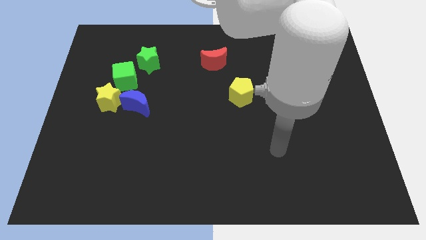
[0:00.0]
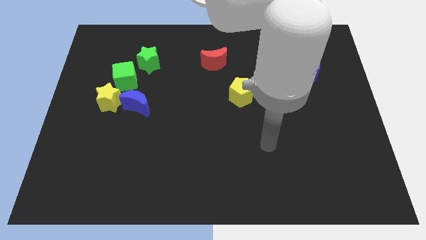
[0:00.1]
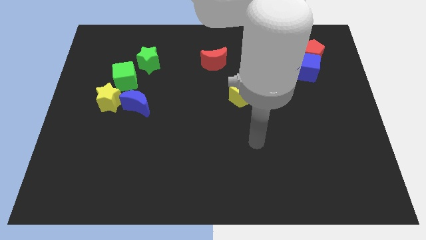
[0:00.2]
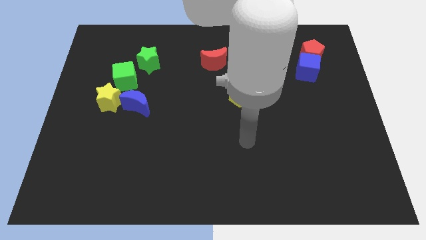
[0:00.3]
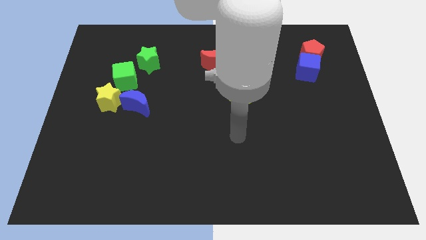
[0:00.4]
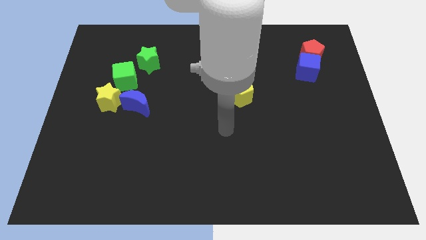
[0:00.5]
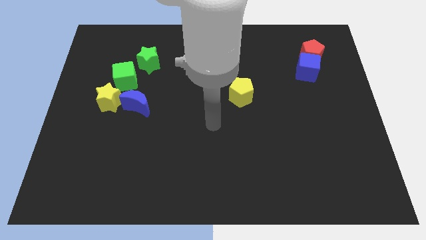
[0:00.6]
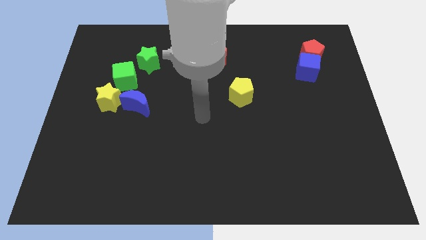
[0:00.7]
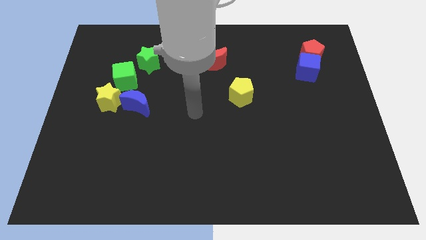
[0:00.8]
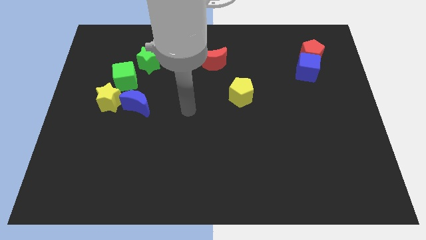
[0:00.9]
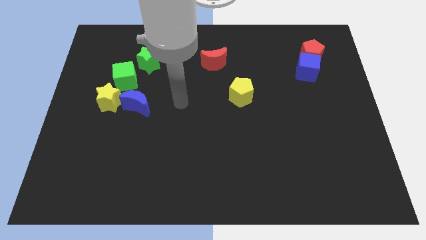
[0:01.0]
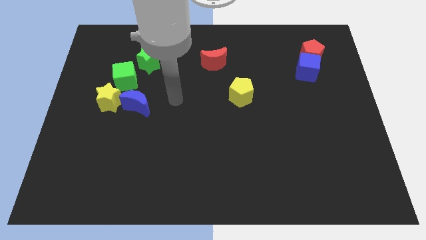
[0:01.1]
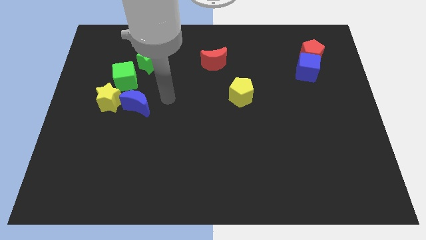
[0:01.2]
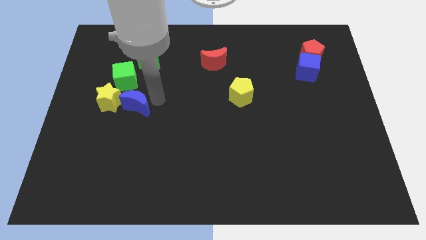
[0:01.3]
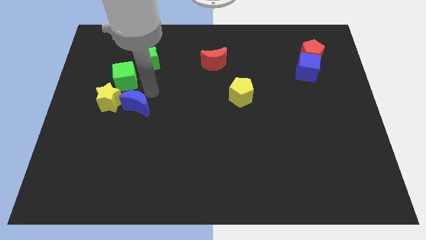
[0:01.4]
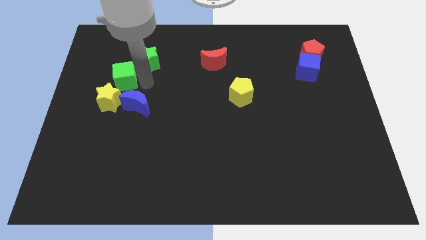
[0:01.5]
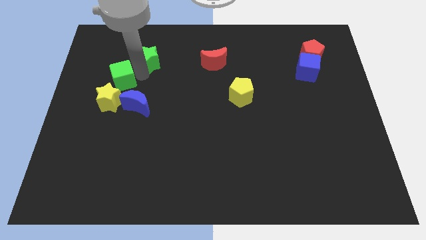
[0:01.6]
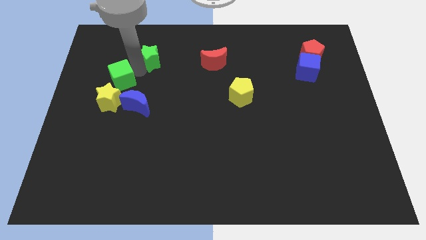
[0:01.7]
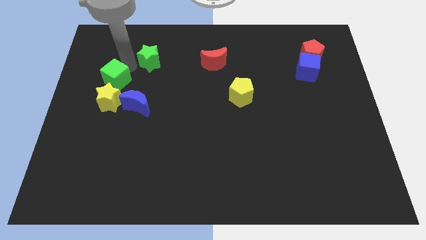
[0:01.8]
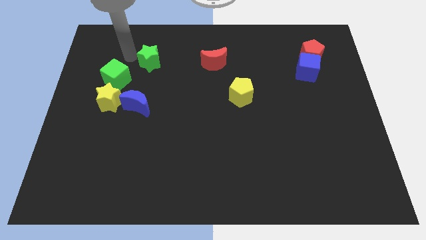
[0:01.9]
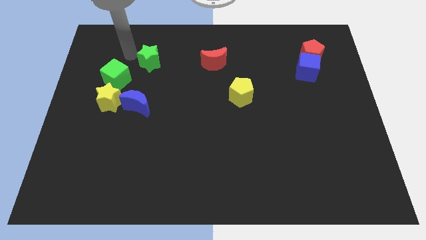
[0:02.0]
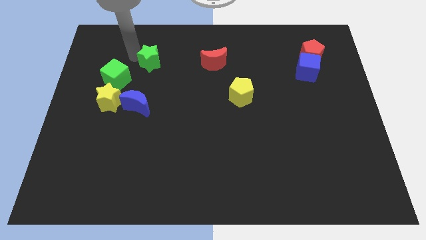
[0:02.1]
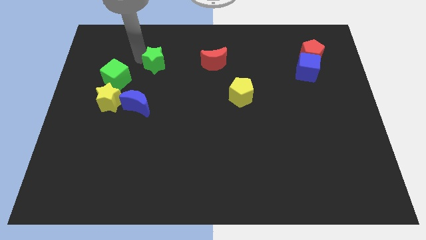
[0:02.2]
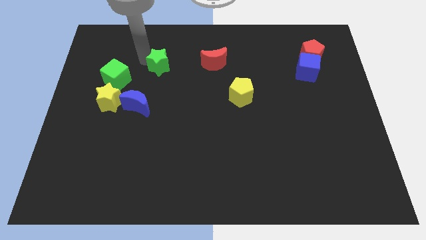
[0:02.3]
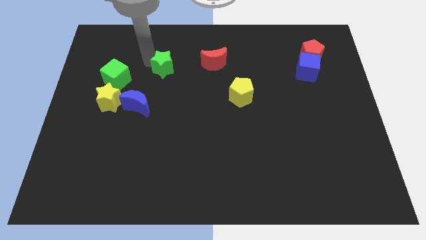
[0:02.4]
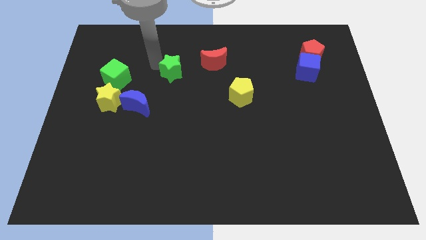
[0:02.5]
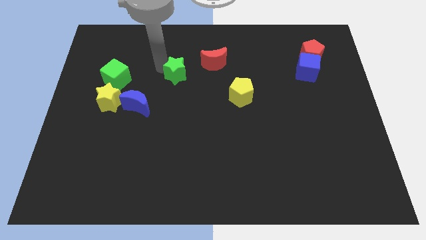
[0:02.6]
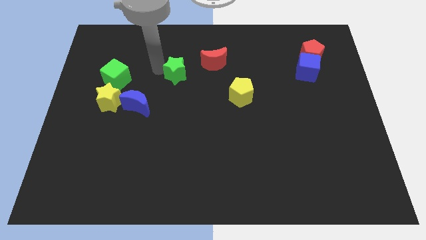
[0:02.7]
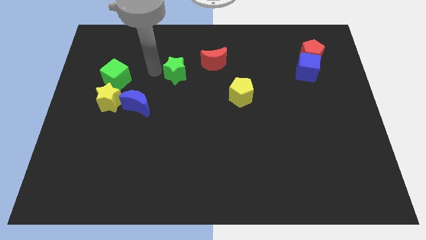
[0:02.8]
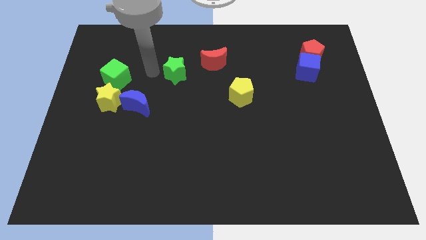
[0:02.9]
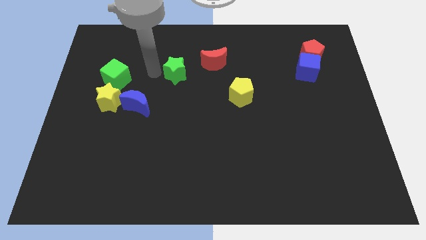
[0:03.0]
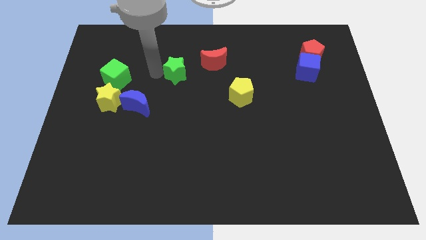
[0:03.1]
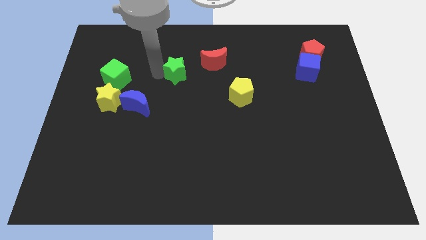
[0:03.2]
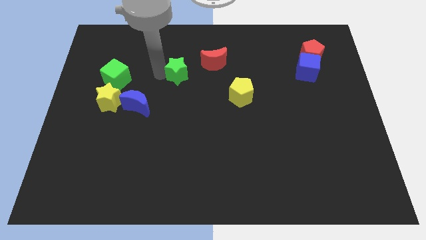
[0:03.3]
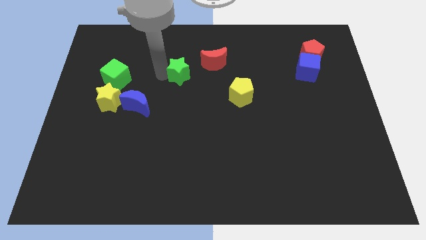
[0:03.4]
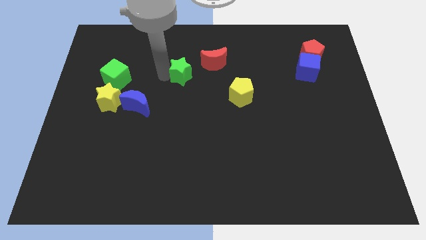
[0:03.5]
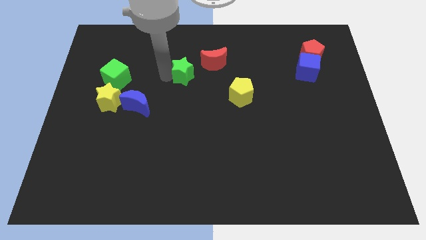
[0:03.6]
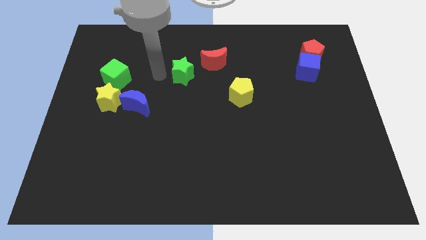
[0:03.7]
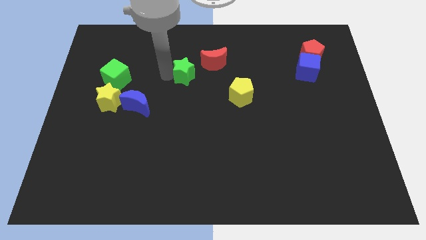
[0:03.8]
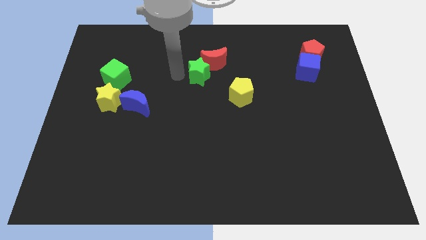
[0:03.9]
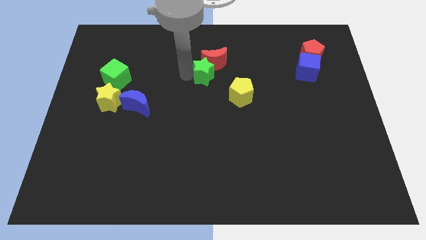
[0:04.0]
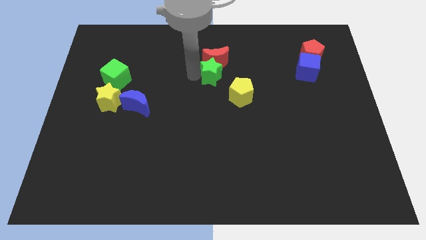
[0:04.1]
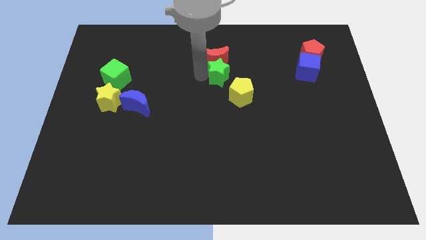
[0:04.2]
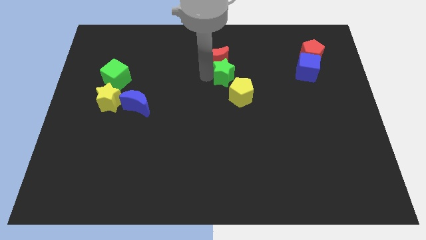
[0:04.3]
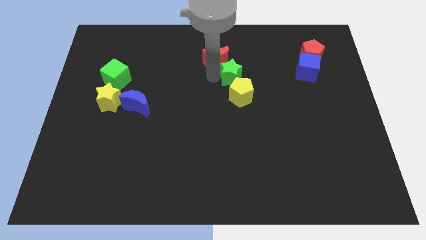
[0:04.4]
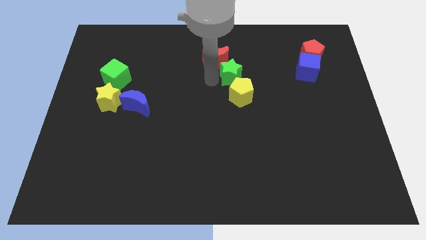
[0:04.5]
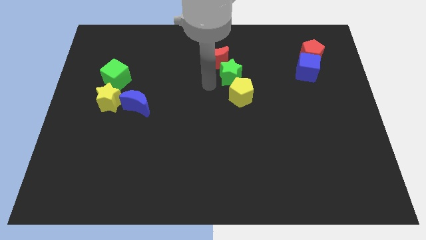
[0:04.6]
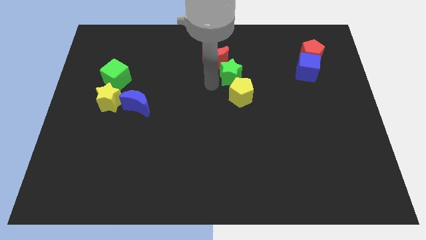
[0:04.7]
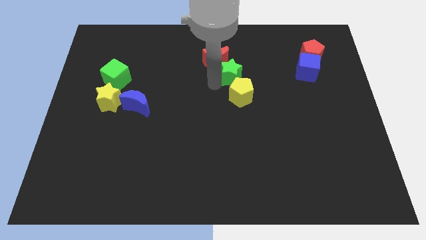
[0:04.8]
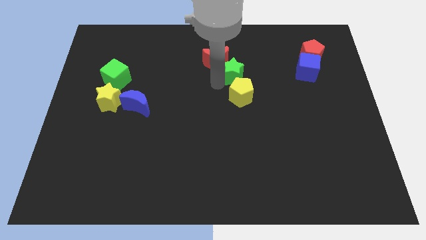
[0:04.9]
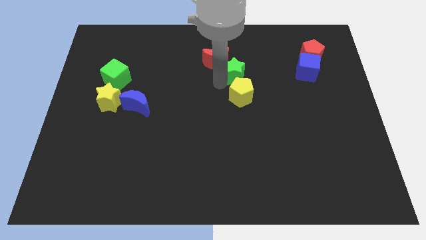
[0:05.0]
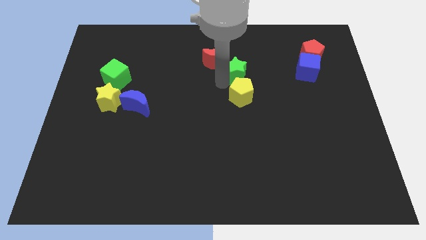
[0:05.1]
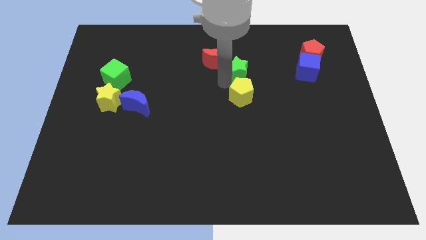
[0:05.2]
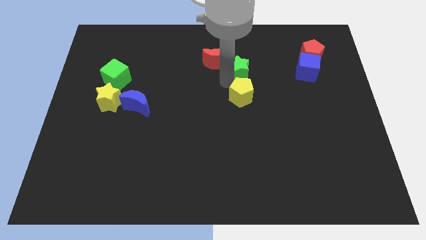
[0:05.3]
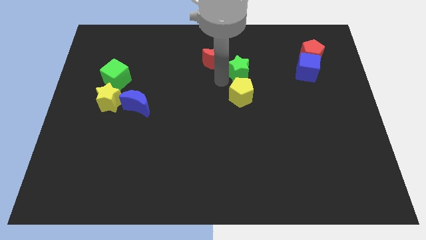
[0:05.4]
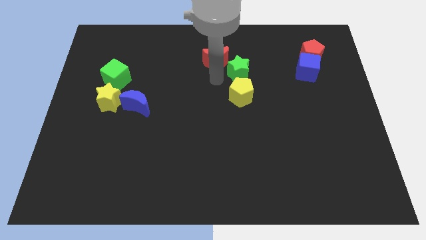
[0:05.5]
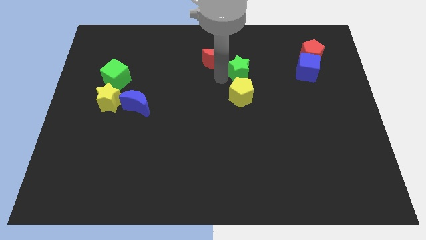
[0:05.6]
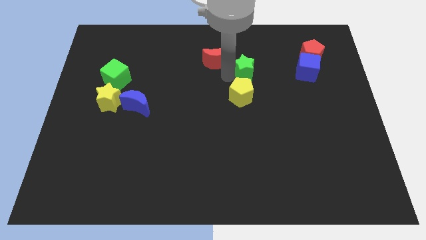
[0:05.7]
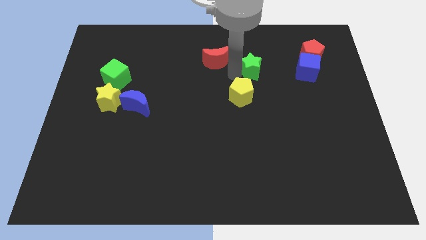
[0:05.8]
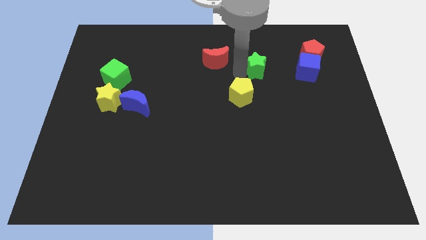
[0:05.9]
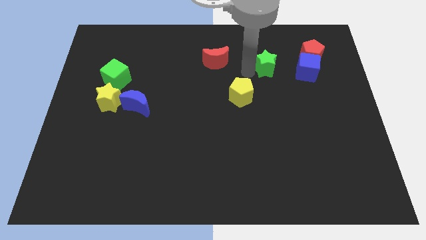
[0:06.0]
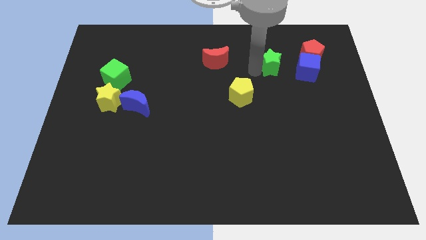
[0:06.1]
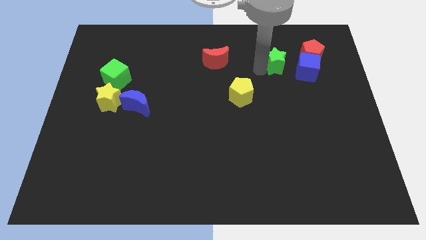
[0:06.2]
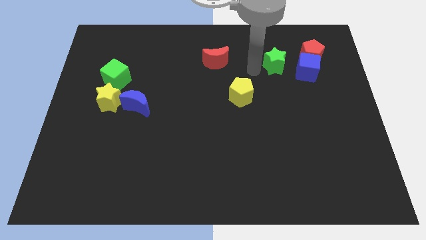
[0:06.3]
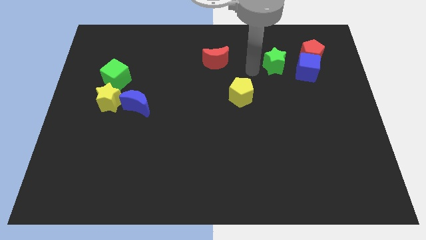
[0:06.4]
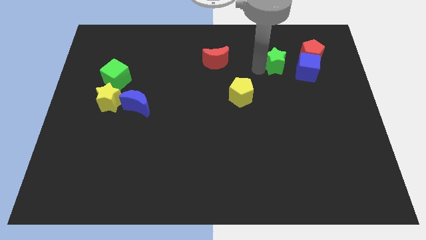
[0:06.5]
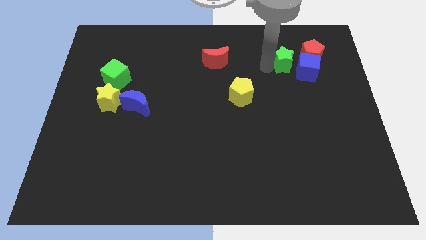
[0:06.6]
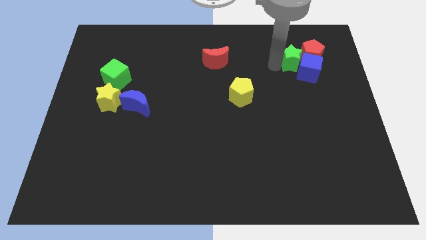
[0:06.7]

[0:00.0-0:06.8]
slide the green star to the red pentagon

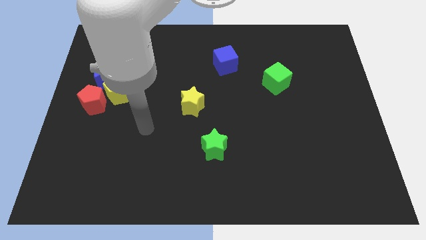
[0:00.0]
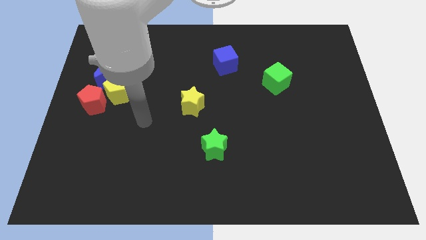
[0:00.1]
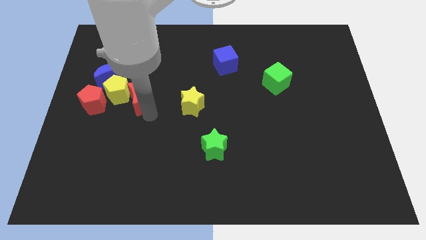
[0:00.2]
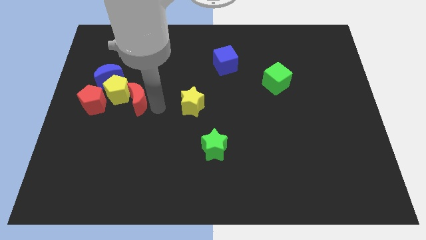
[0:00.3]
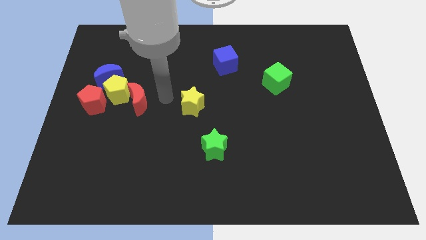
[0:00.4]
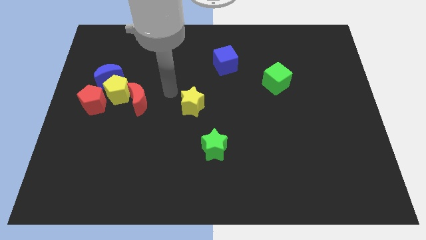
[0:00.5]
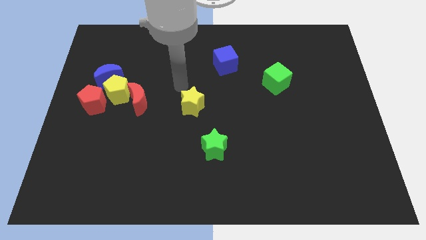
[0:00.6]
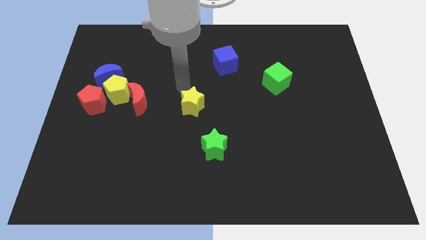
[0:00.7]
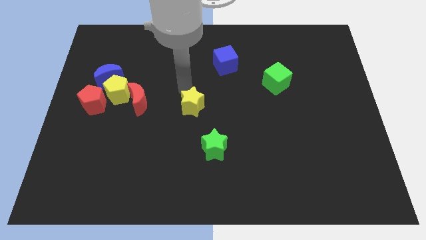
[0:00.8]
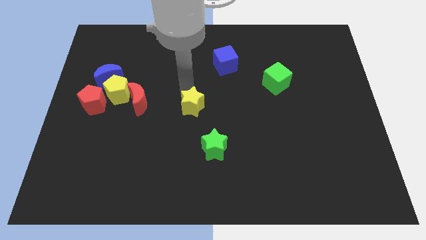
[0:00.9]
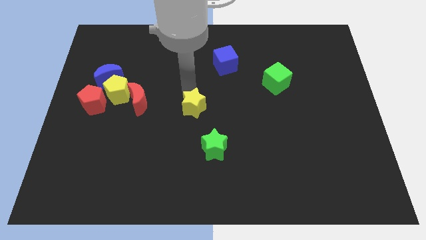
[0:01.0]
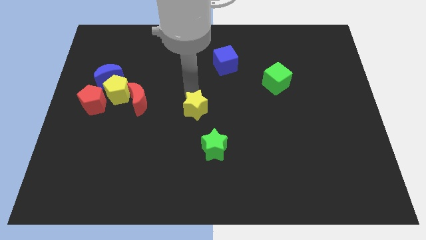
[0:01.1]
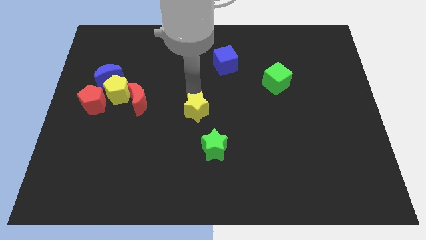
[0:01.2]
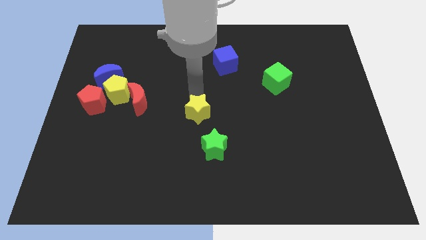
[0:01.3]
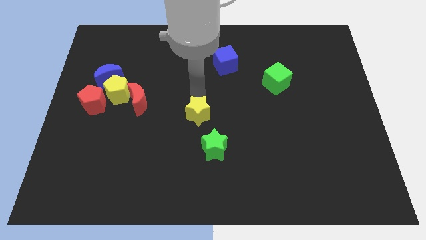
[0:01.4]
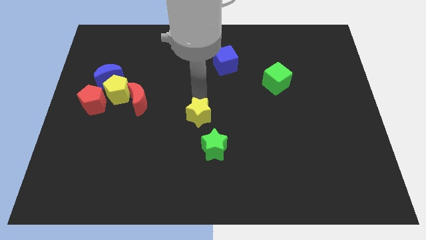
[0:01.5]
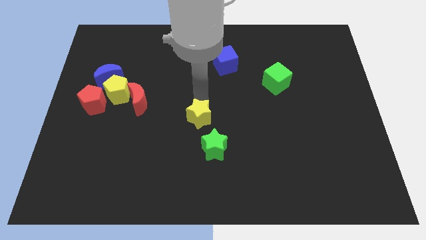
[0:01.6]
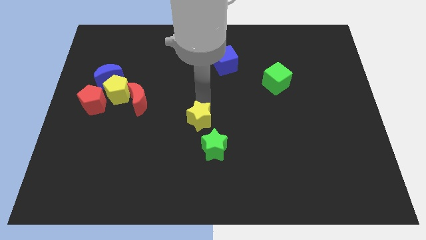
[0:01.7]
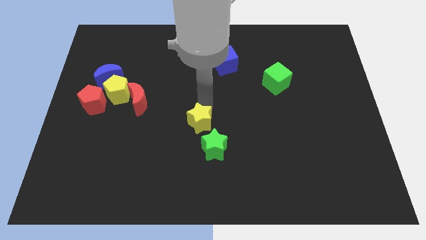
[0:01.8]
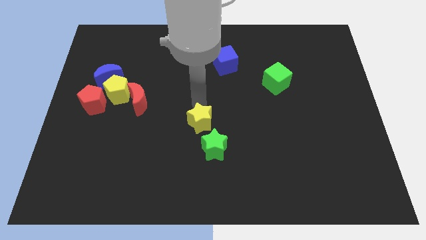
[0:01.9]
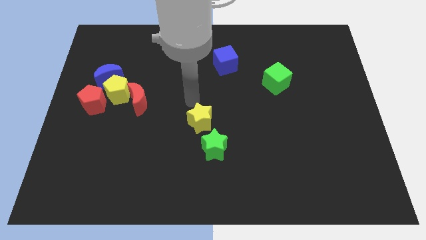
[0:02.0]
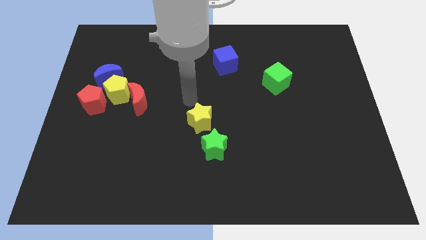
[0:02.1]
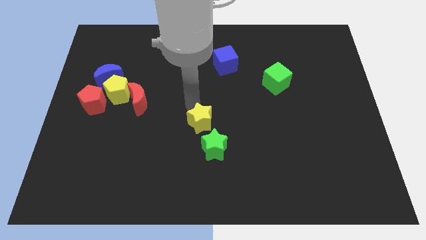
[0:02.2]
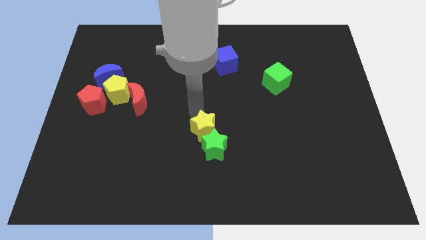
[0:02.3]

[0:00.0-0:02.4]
push the yellow star towards the green star
